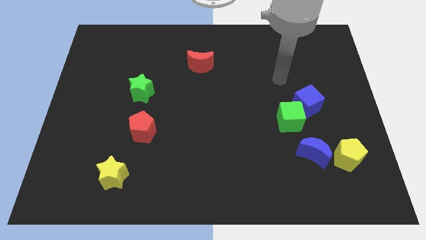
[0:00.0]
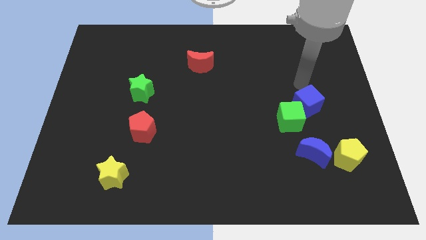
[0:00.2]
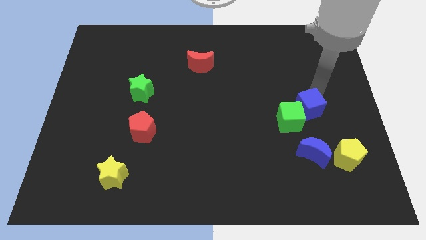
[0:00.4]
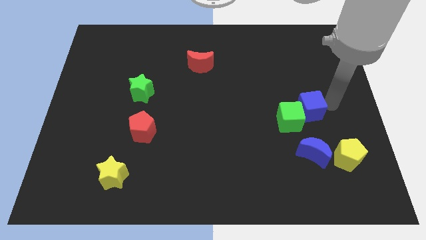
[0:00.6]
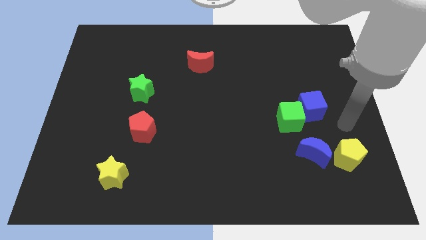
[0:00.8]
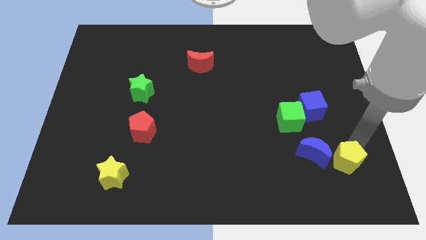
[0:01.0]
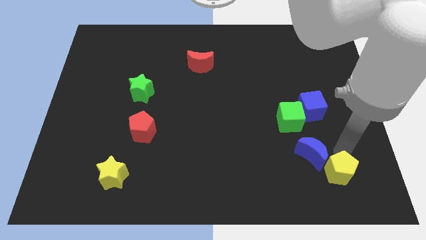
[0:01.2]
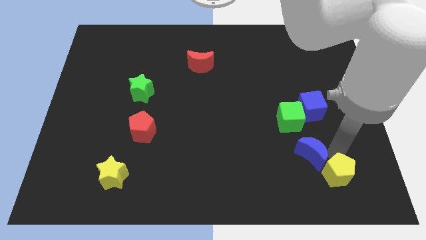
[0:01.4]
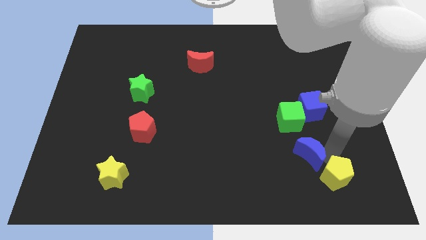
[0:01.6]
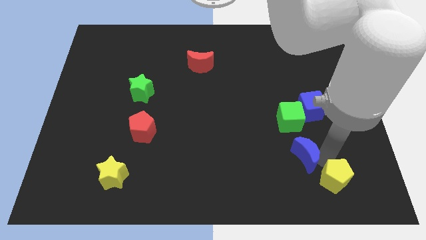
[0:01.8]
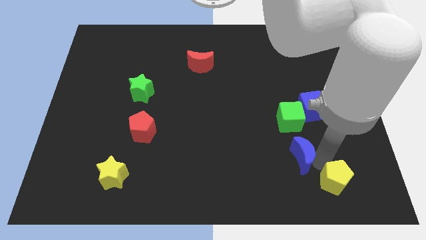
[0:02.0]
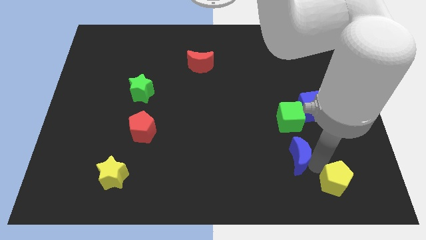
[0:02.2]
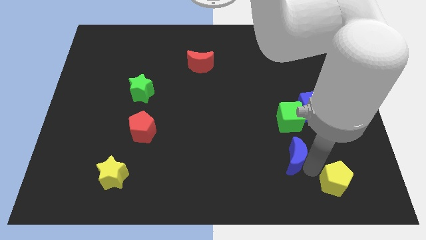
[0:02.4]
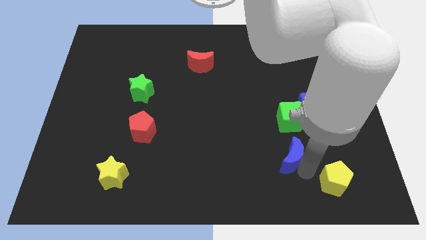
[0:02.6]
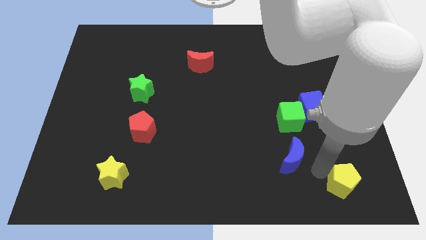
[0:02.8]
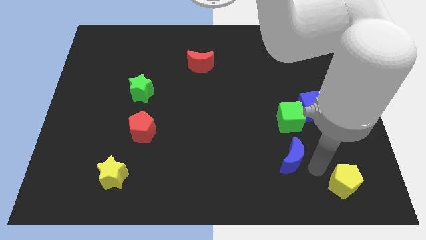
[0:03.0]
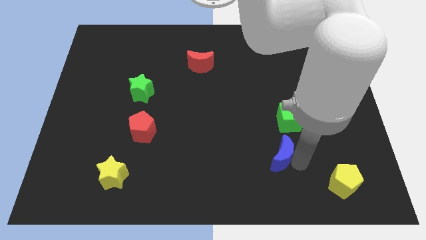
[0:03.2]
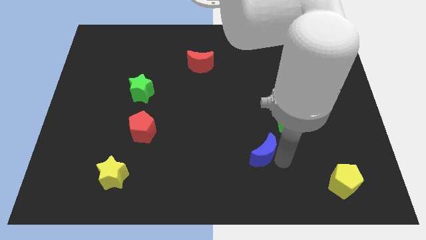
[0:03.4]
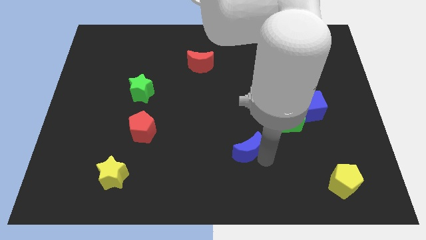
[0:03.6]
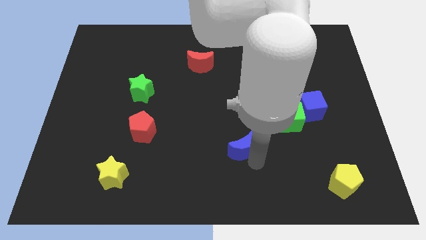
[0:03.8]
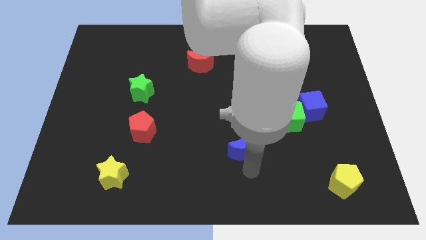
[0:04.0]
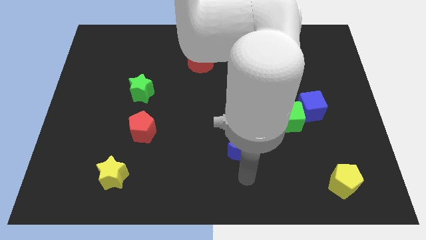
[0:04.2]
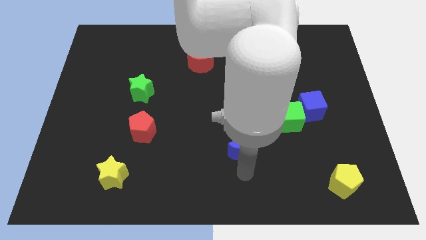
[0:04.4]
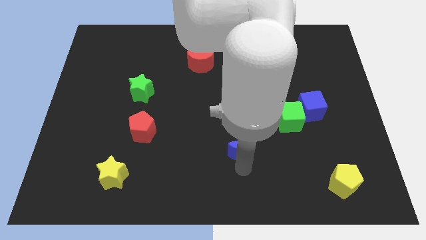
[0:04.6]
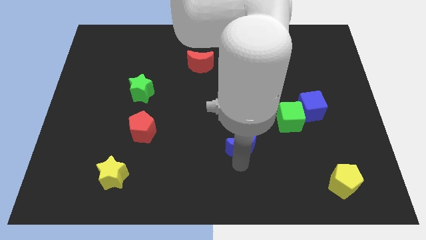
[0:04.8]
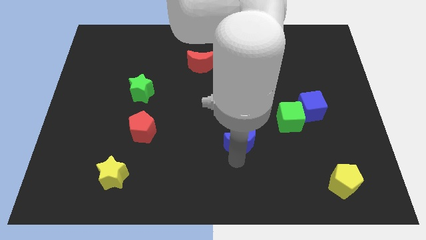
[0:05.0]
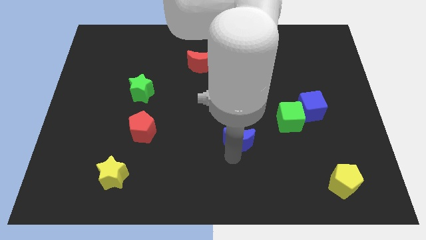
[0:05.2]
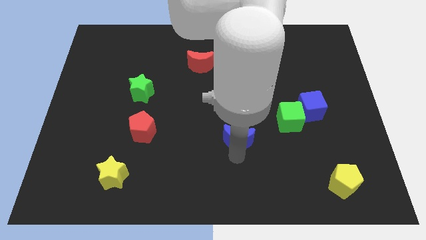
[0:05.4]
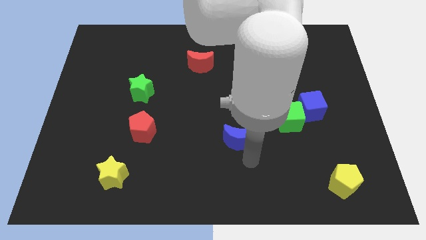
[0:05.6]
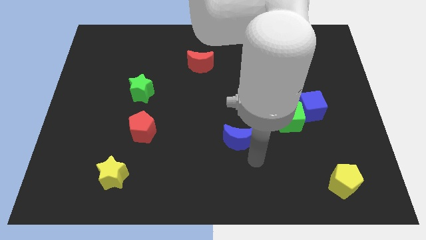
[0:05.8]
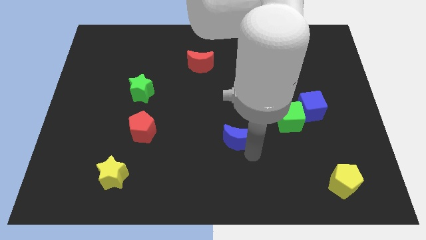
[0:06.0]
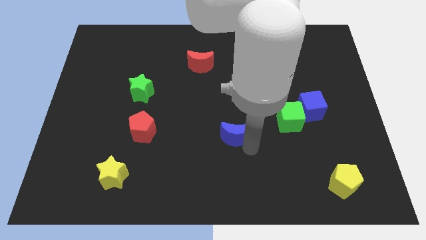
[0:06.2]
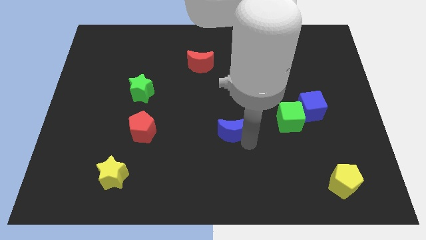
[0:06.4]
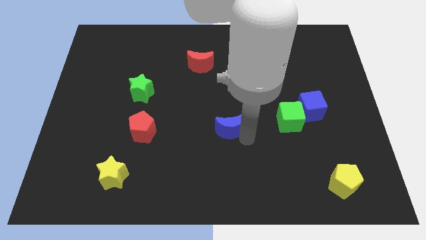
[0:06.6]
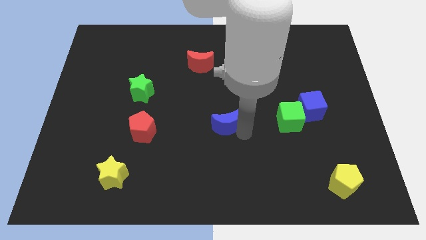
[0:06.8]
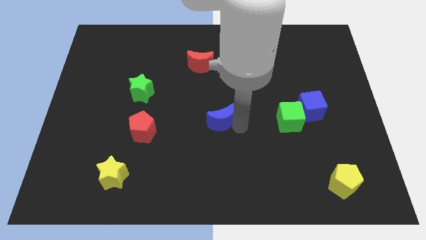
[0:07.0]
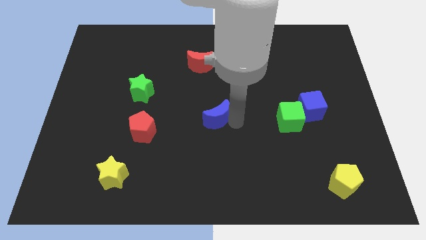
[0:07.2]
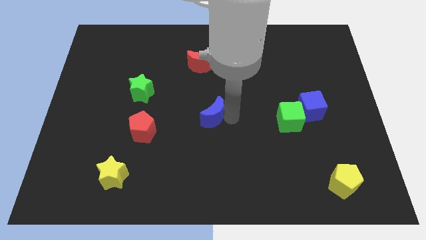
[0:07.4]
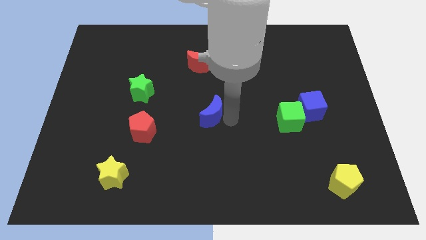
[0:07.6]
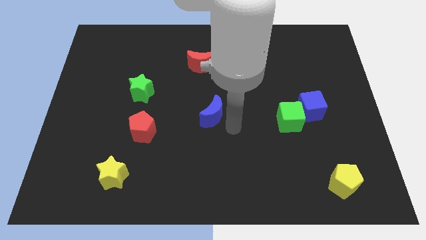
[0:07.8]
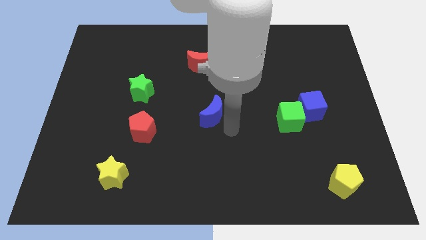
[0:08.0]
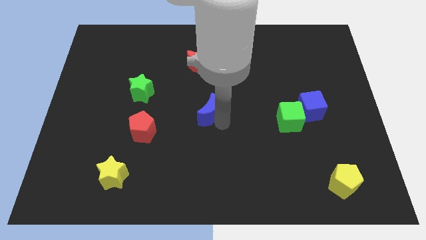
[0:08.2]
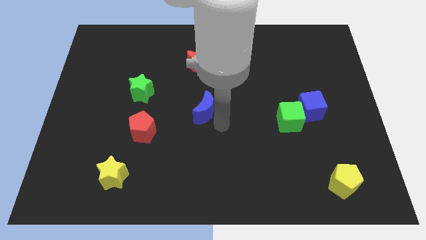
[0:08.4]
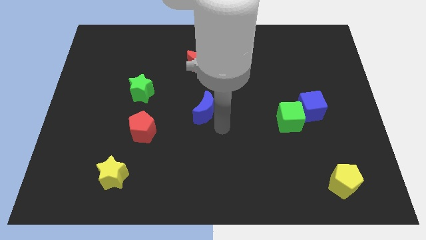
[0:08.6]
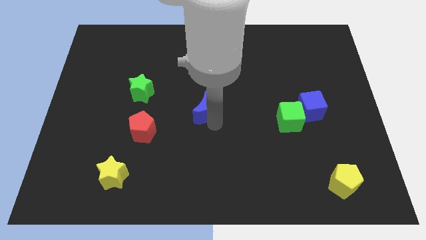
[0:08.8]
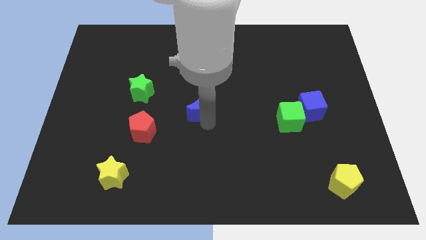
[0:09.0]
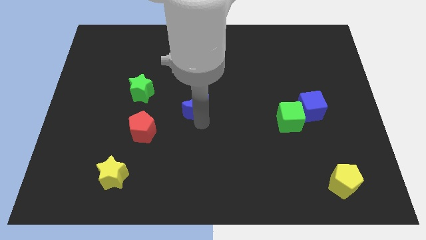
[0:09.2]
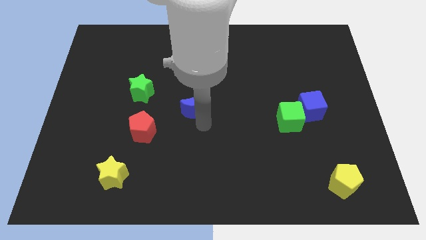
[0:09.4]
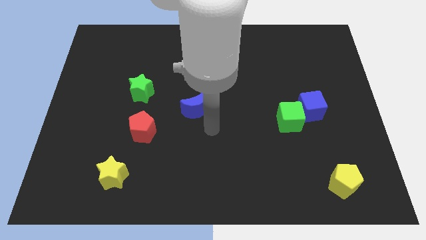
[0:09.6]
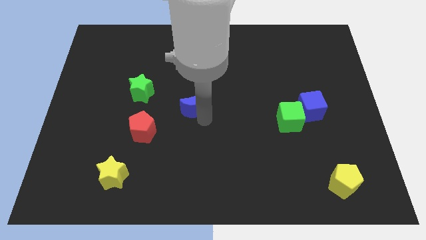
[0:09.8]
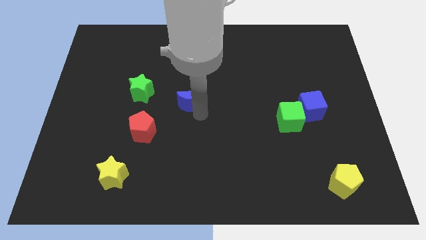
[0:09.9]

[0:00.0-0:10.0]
slide the blue moon to the right side of the green star

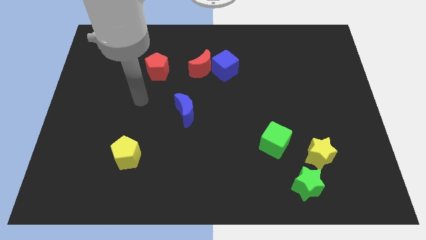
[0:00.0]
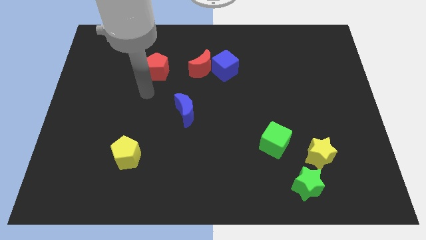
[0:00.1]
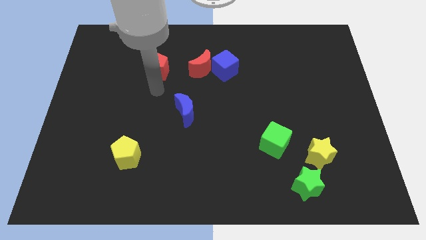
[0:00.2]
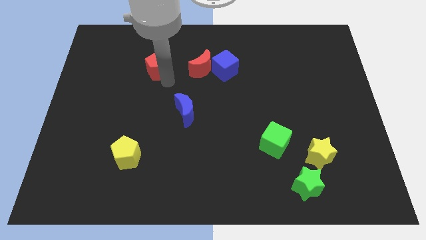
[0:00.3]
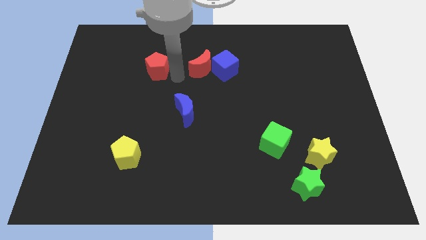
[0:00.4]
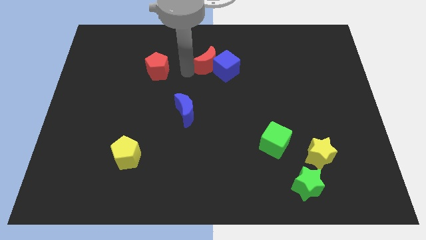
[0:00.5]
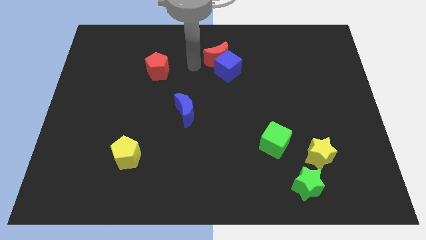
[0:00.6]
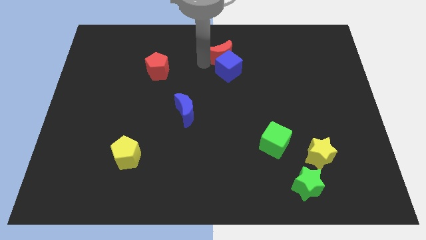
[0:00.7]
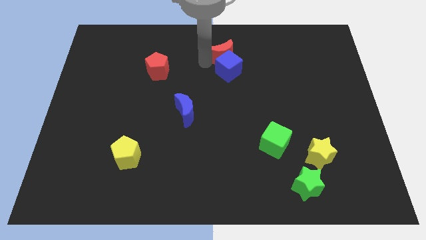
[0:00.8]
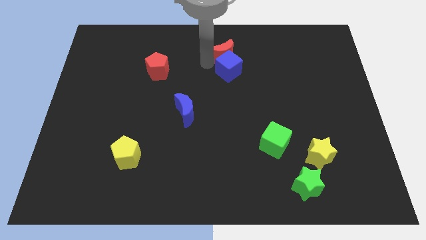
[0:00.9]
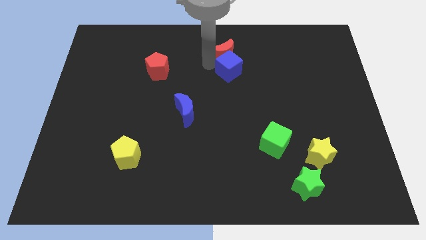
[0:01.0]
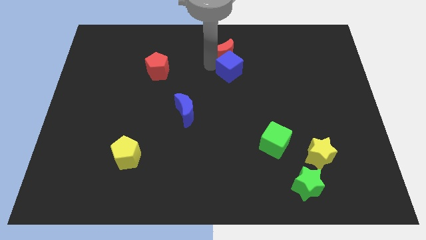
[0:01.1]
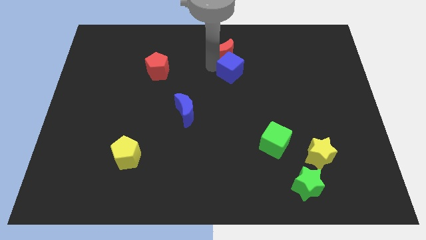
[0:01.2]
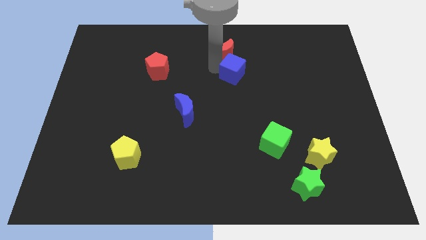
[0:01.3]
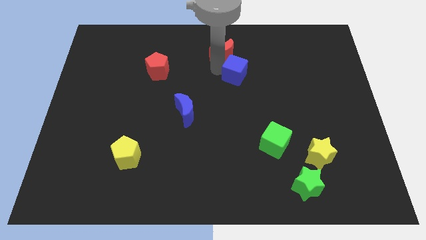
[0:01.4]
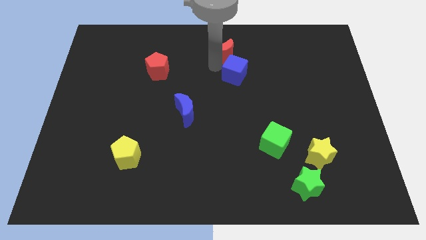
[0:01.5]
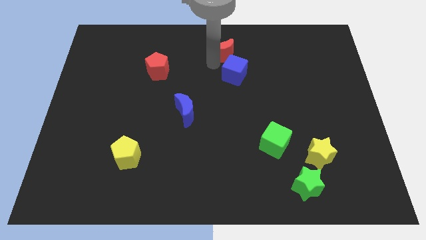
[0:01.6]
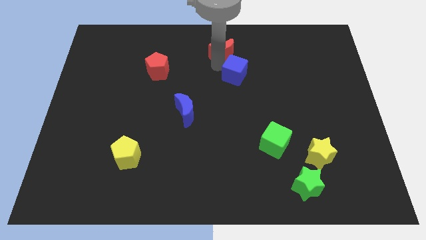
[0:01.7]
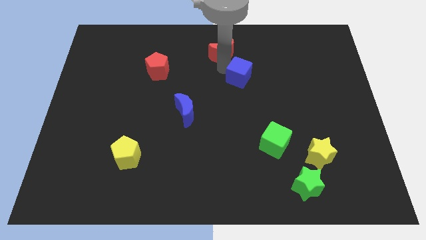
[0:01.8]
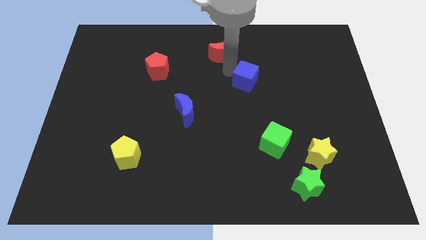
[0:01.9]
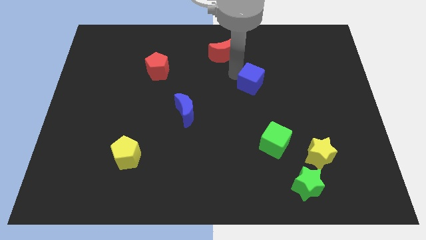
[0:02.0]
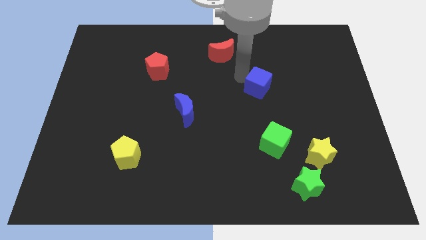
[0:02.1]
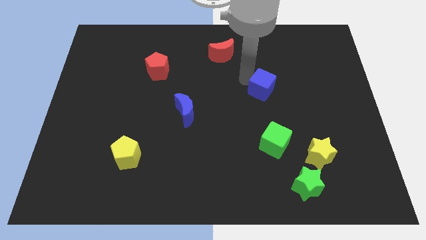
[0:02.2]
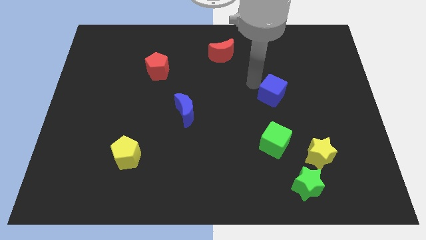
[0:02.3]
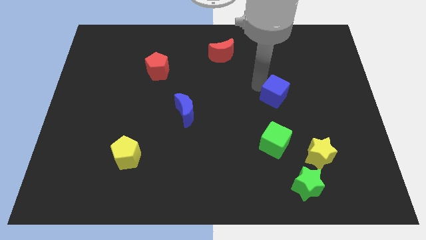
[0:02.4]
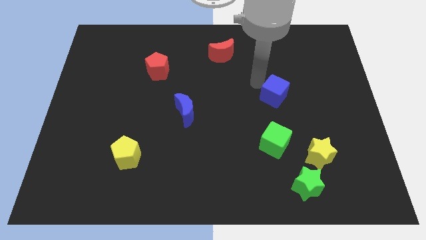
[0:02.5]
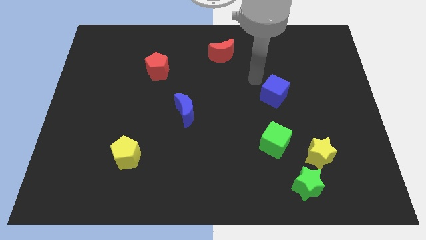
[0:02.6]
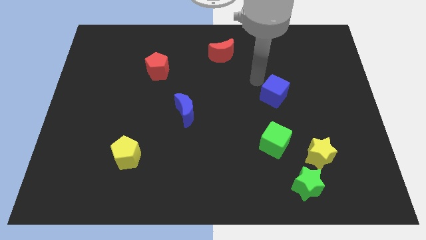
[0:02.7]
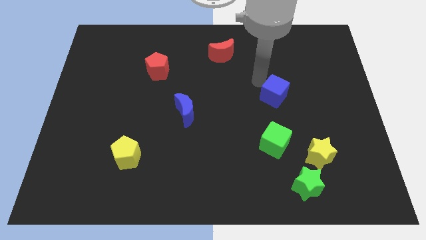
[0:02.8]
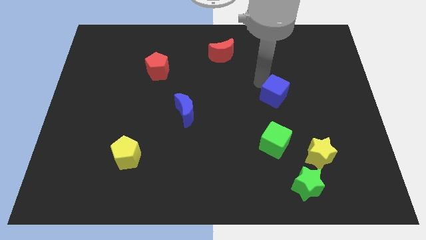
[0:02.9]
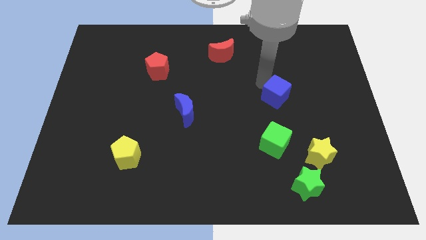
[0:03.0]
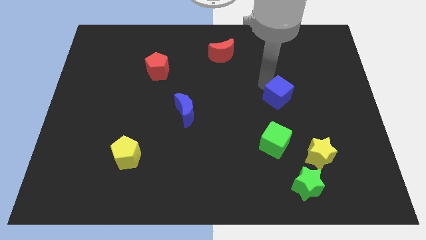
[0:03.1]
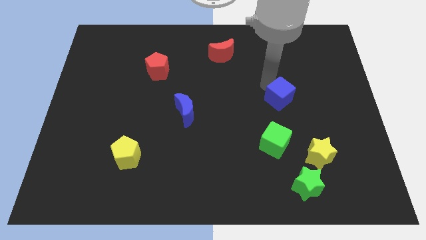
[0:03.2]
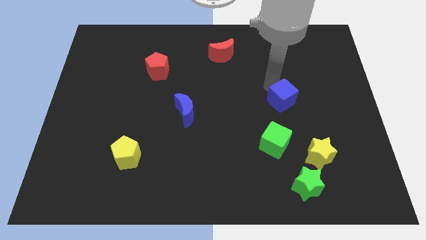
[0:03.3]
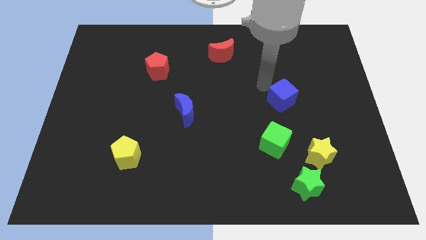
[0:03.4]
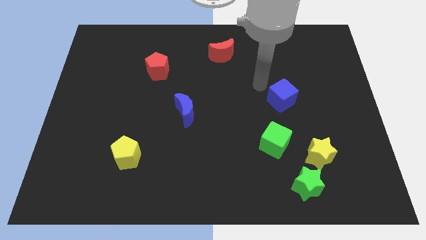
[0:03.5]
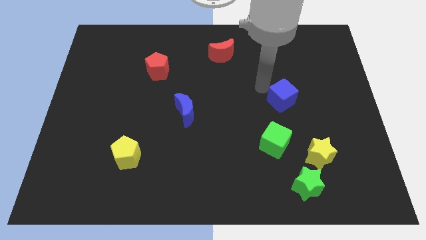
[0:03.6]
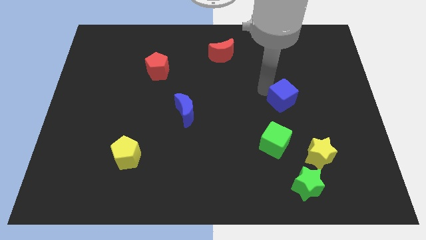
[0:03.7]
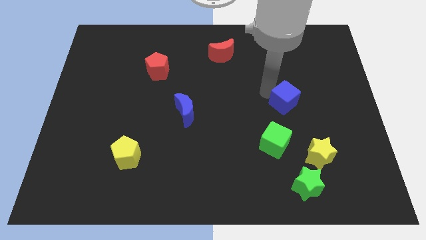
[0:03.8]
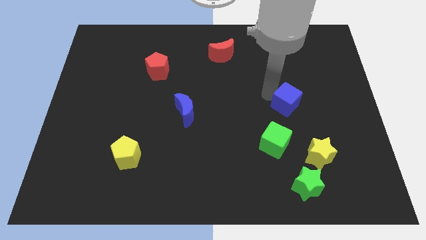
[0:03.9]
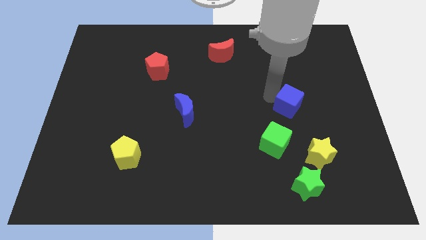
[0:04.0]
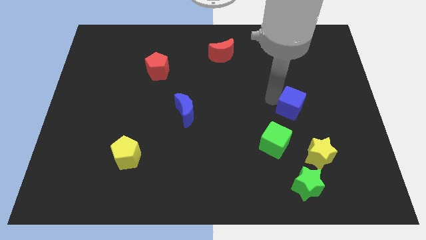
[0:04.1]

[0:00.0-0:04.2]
push the blue cube to the top side of the yellow star
